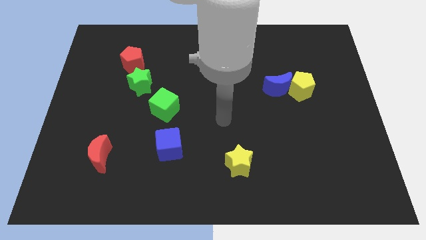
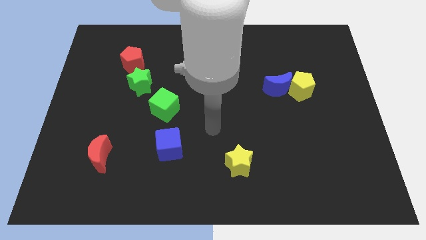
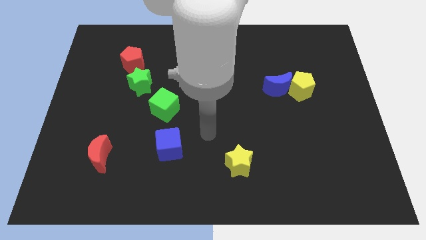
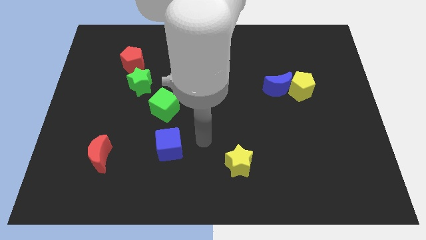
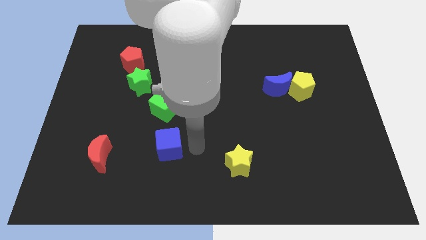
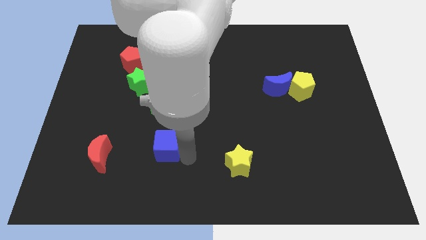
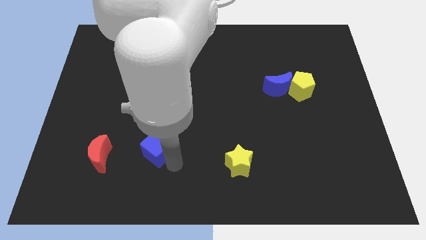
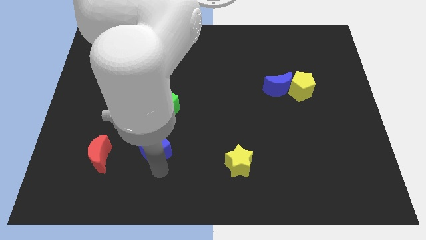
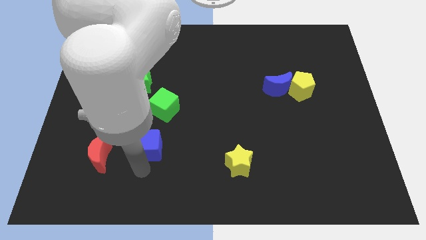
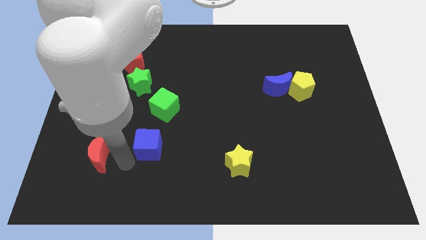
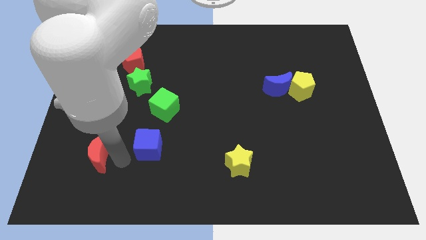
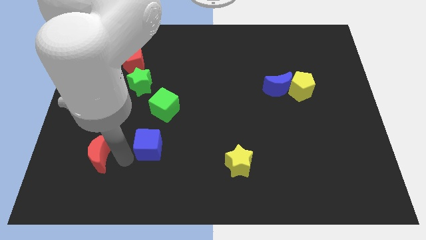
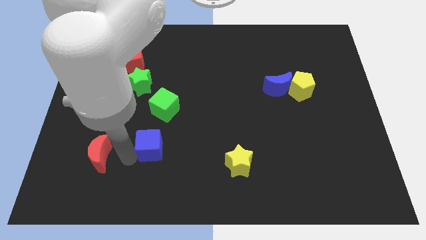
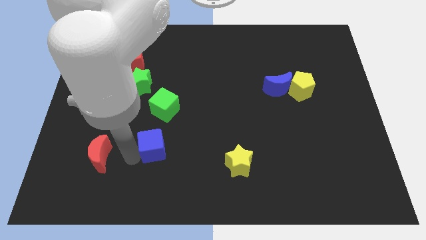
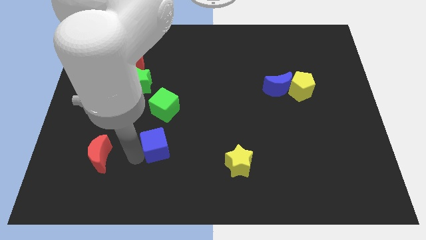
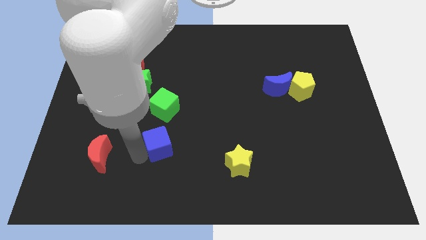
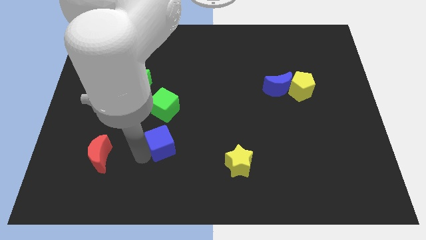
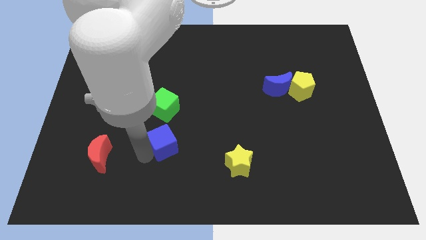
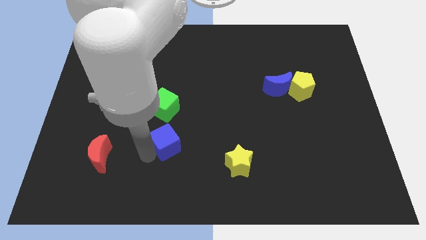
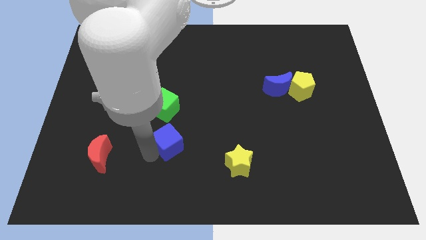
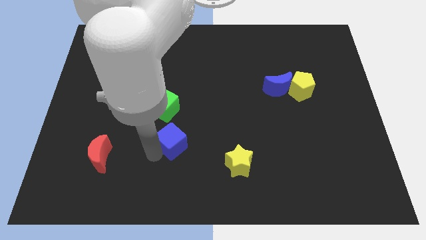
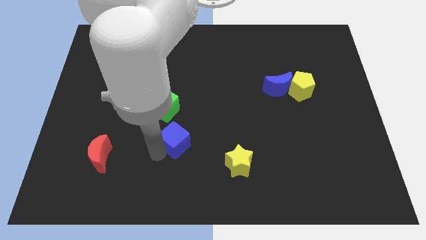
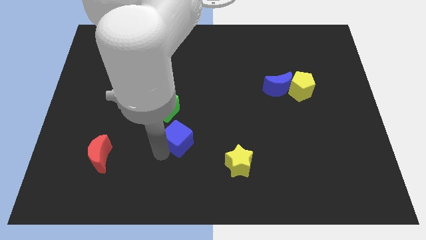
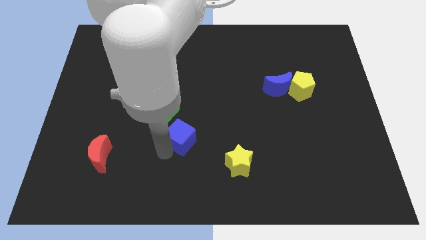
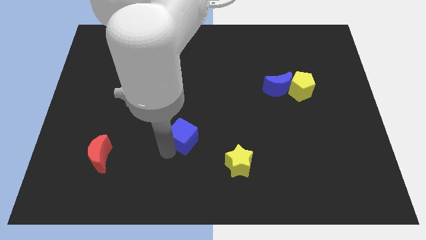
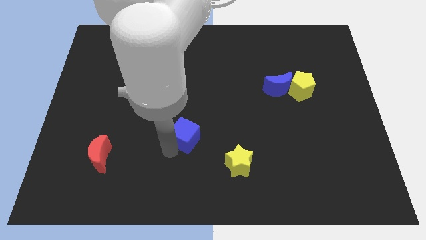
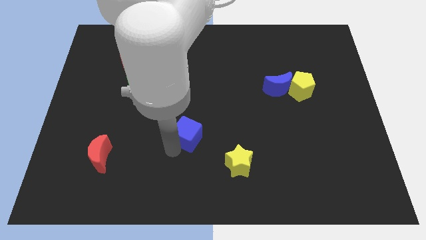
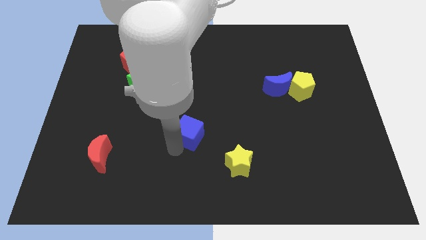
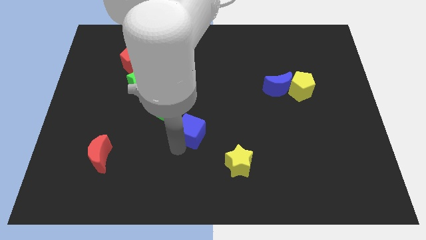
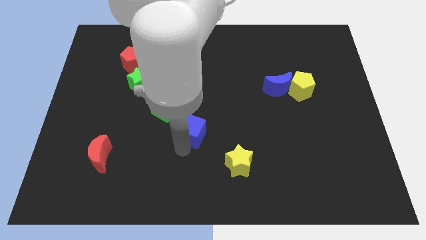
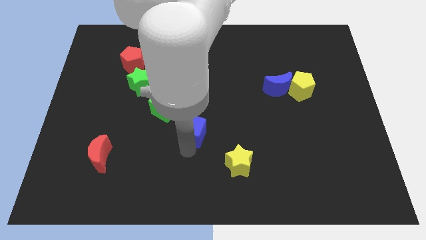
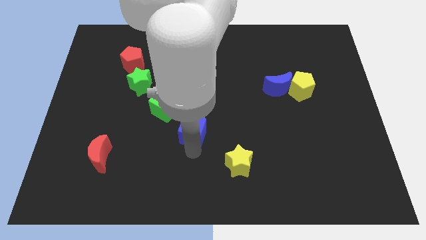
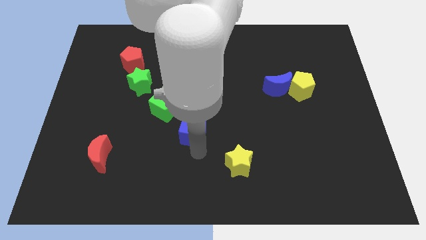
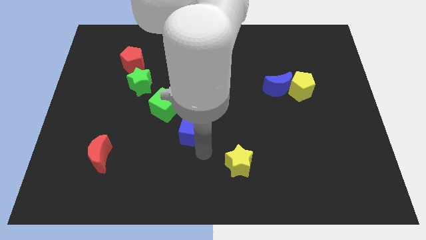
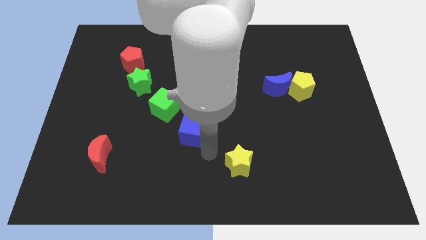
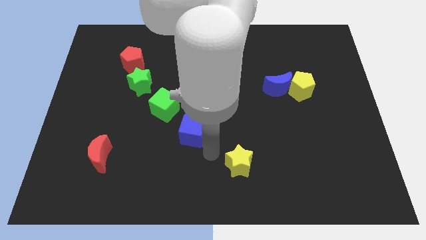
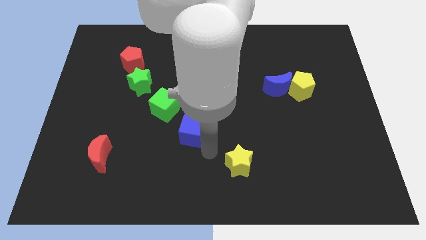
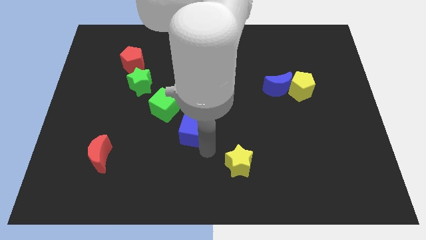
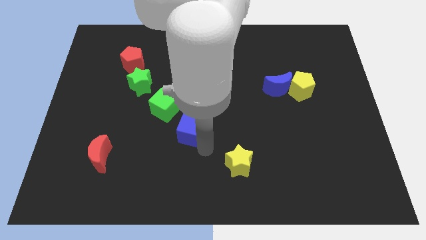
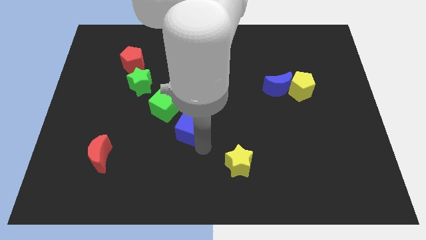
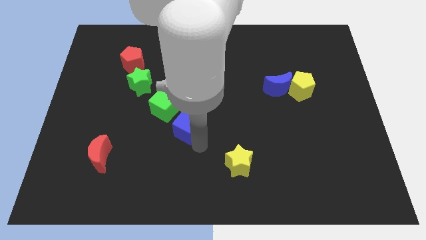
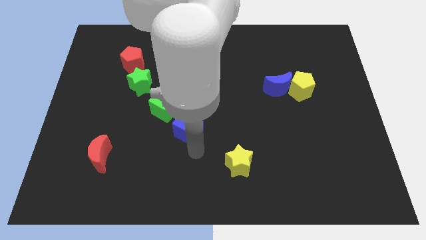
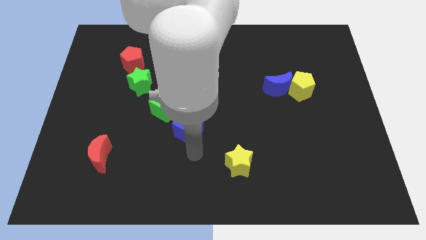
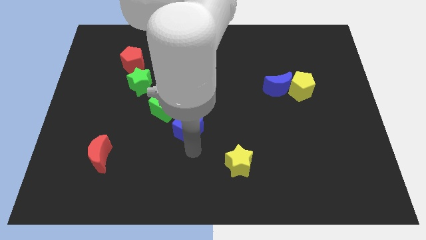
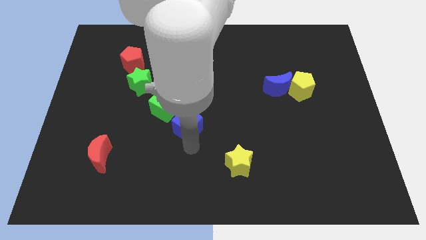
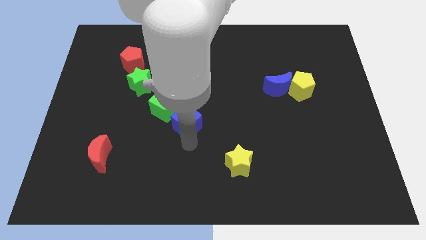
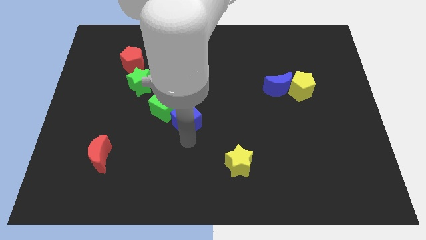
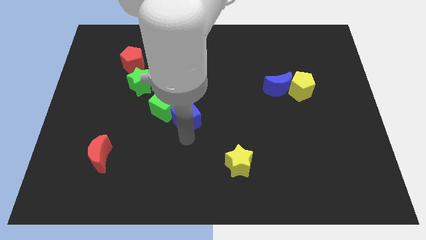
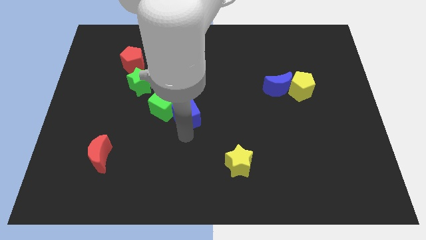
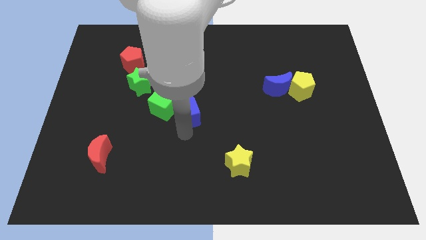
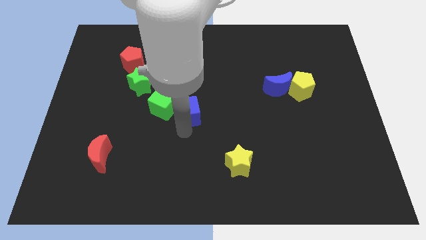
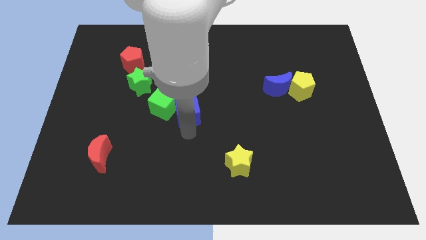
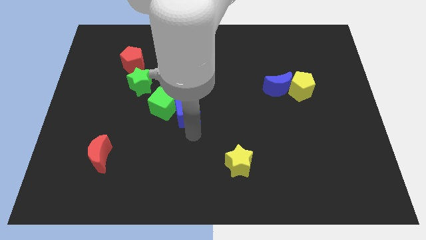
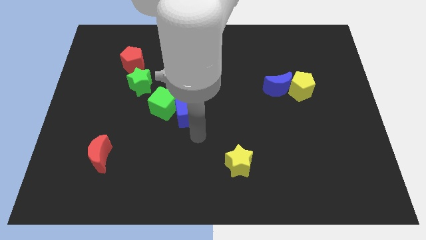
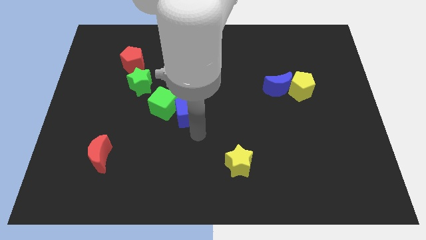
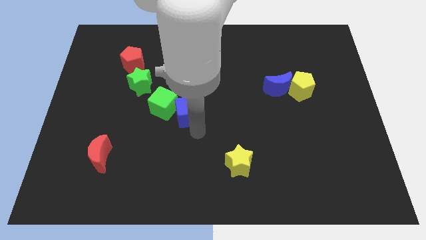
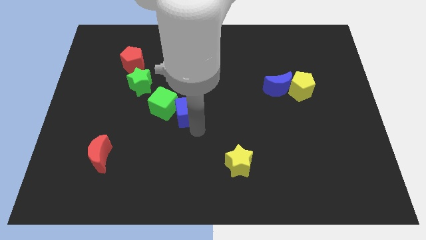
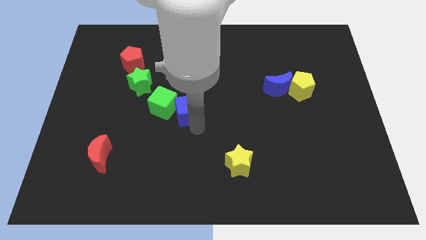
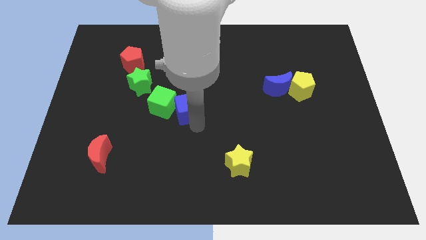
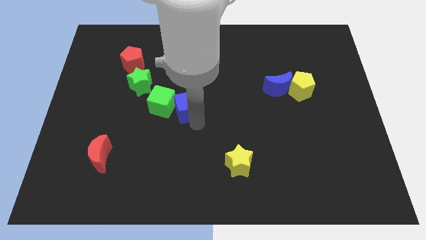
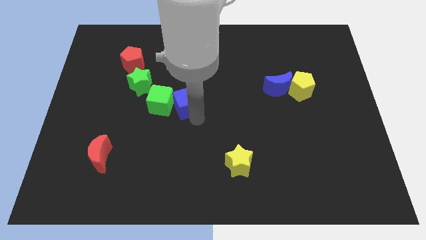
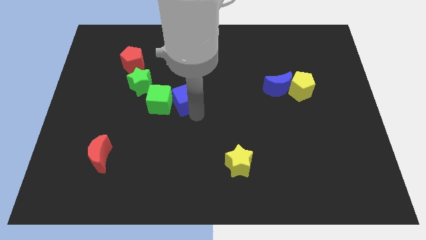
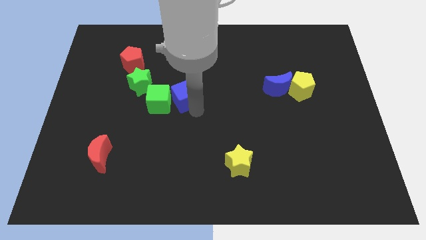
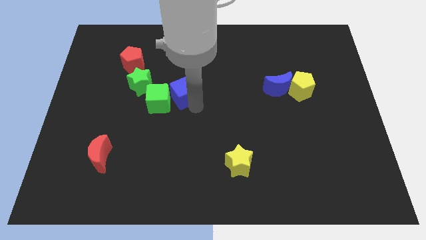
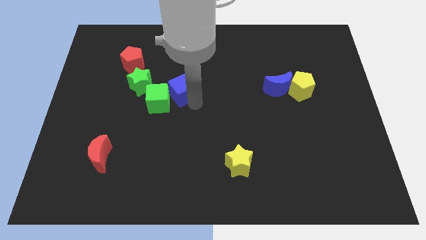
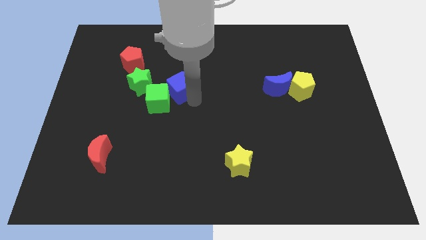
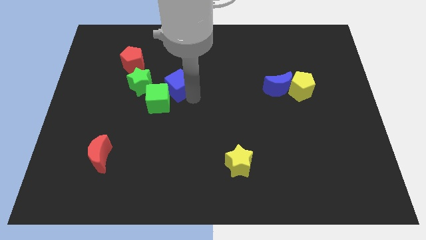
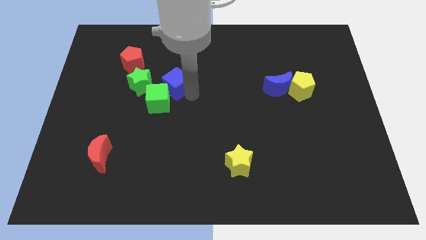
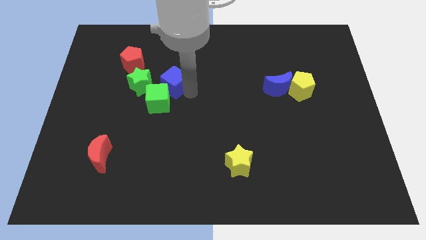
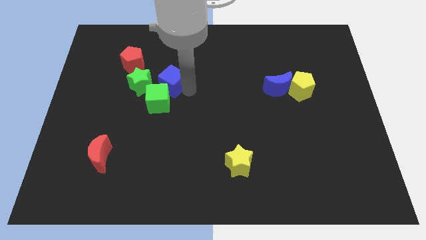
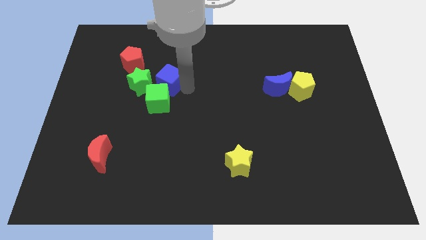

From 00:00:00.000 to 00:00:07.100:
slide the blue cube to the bottom right of the red pentagon
